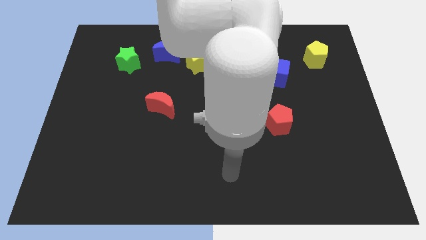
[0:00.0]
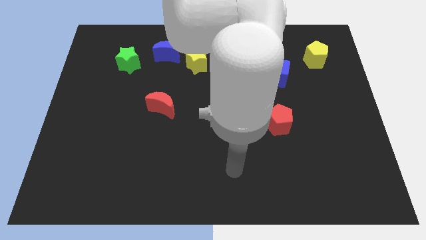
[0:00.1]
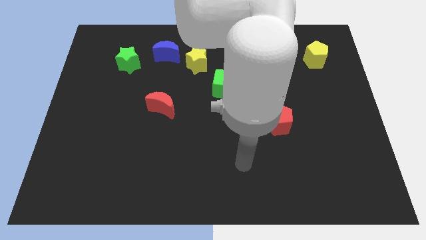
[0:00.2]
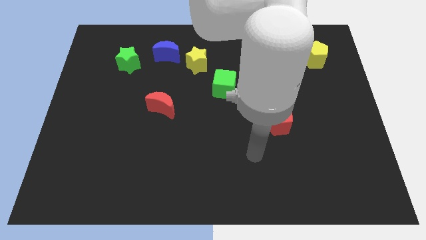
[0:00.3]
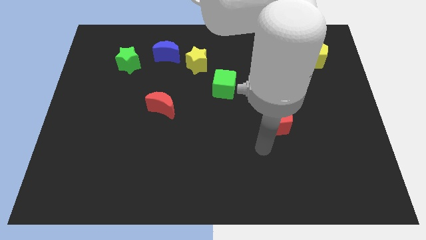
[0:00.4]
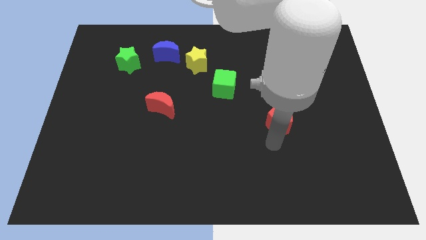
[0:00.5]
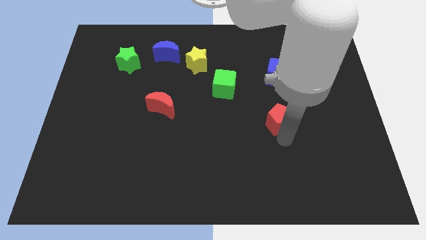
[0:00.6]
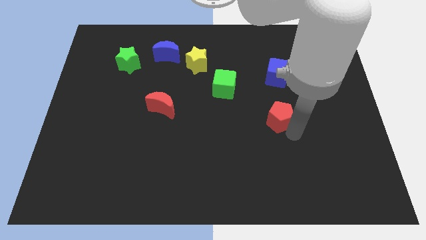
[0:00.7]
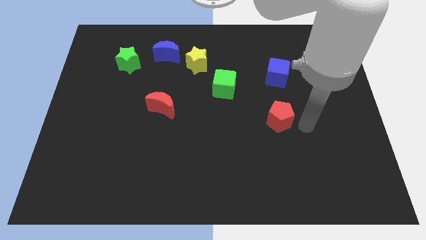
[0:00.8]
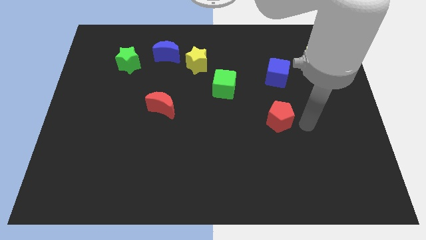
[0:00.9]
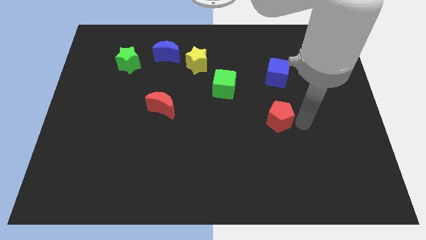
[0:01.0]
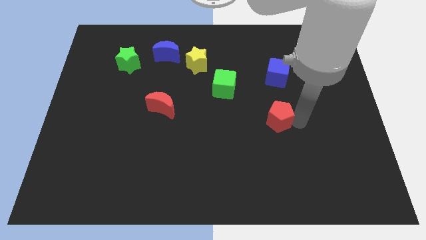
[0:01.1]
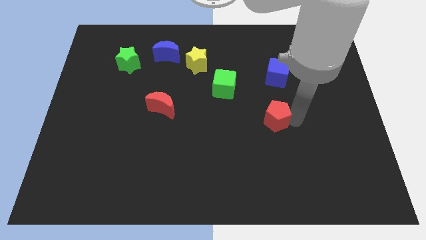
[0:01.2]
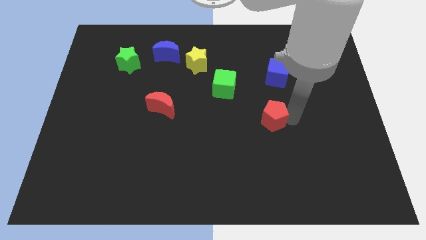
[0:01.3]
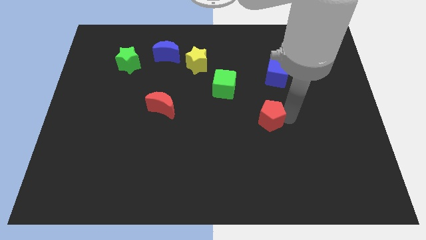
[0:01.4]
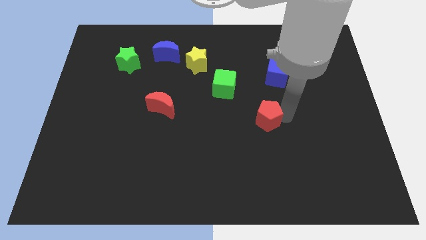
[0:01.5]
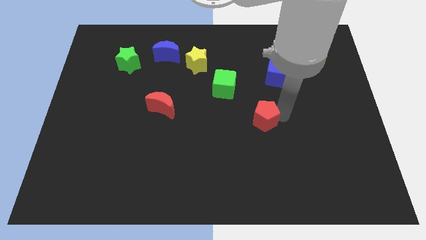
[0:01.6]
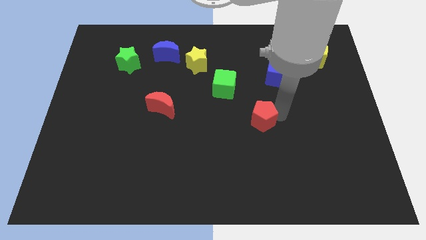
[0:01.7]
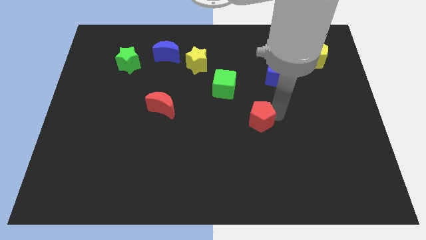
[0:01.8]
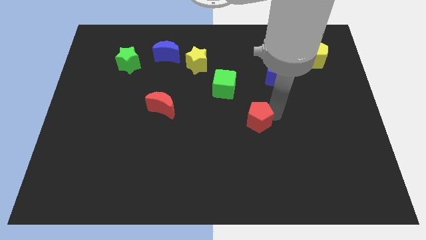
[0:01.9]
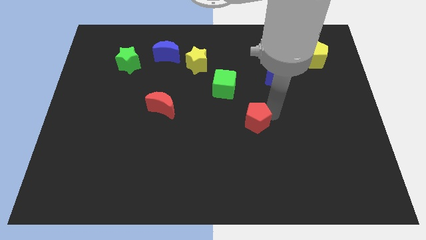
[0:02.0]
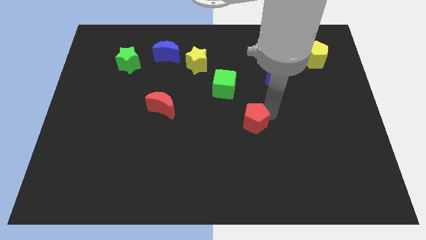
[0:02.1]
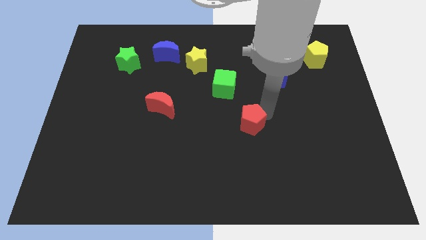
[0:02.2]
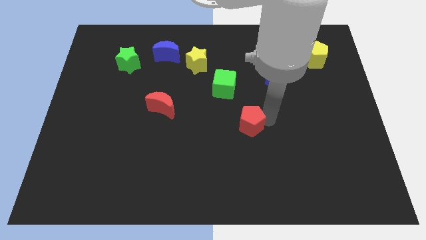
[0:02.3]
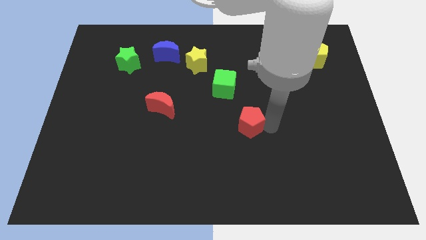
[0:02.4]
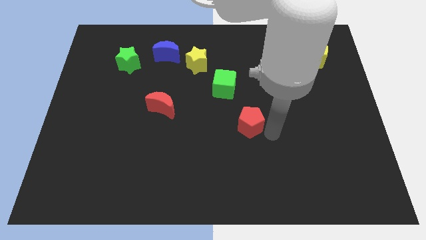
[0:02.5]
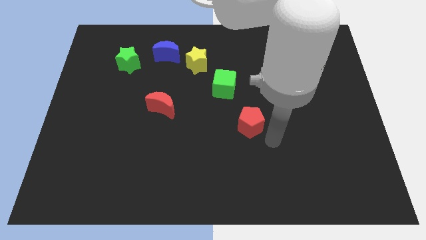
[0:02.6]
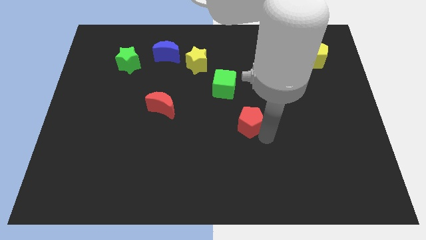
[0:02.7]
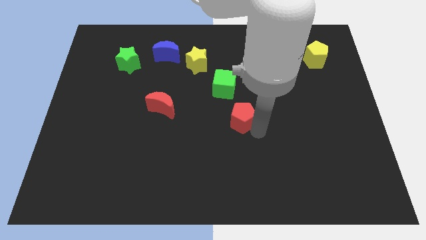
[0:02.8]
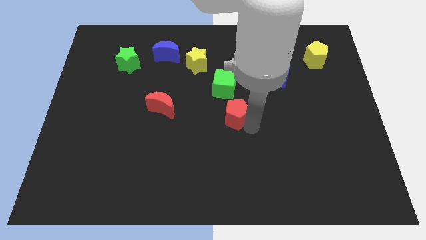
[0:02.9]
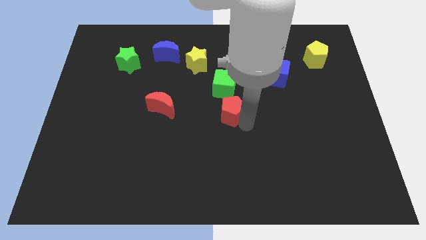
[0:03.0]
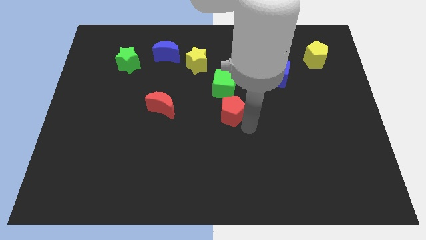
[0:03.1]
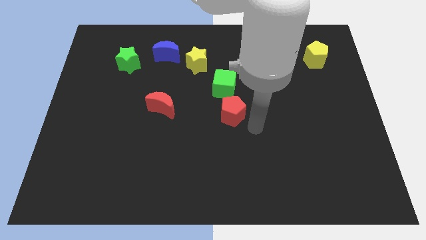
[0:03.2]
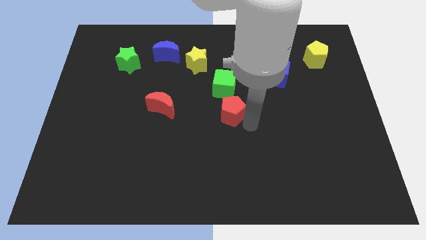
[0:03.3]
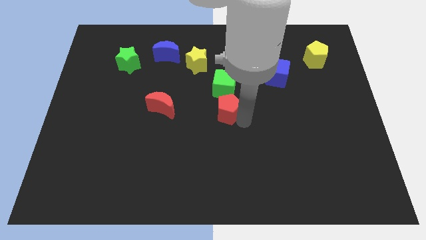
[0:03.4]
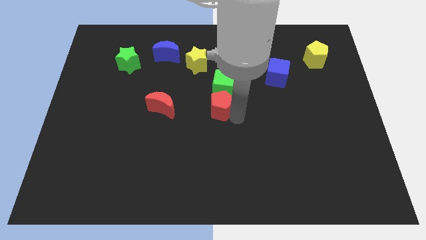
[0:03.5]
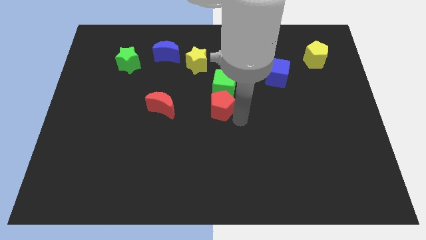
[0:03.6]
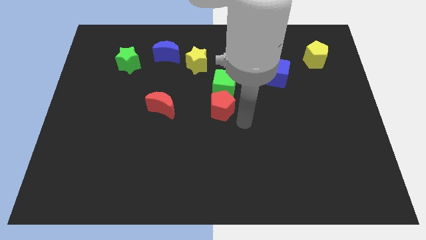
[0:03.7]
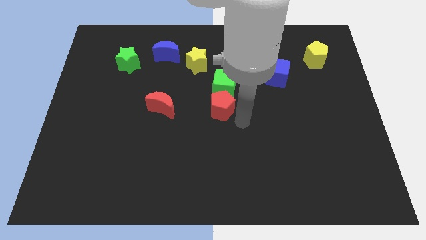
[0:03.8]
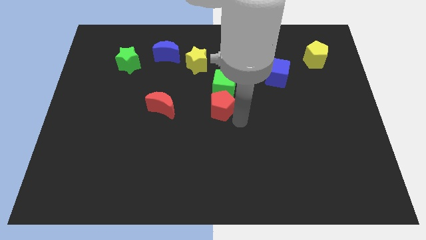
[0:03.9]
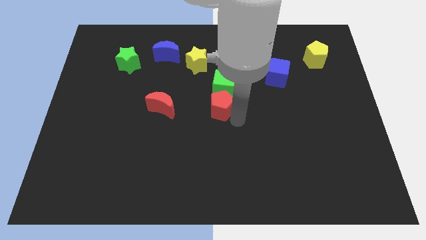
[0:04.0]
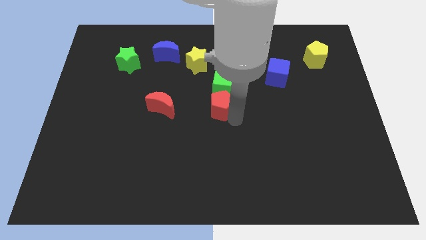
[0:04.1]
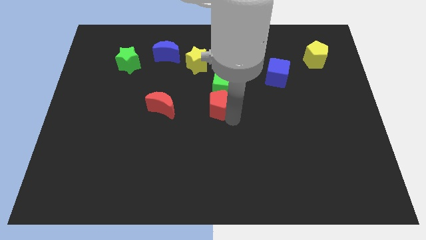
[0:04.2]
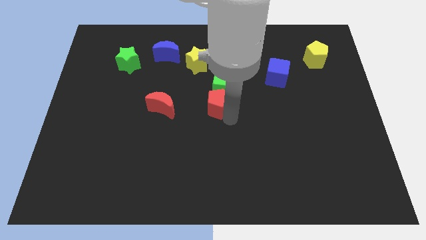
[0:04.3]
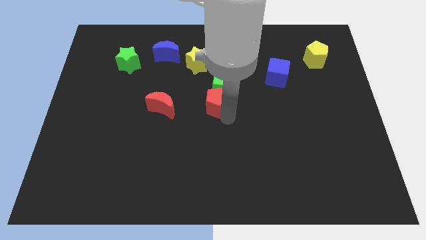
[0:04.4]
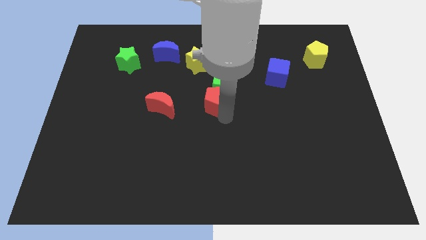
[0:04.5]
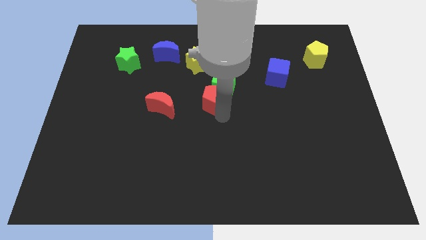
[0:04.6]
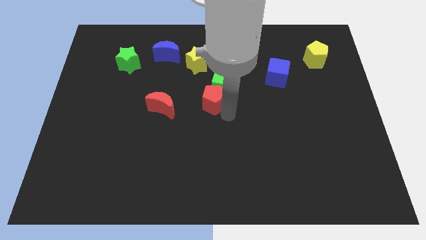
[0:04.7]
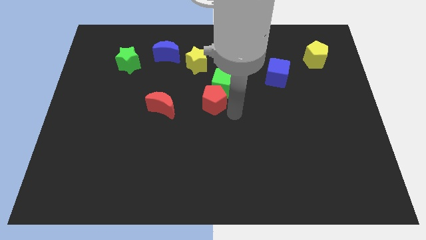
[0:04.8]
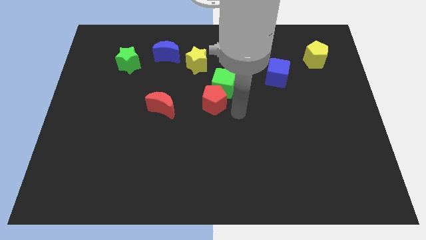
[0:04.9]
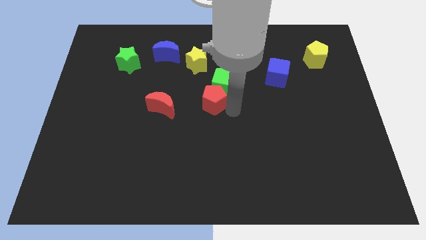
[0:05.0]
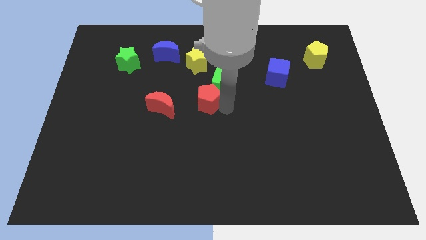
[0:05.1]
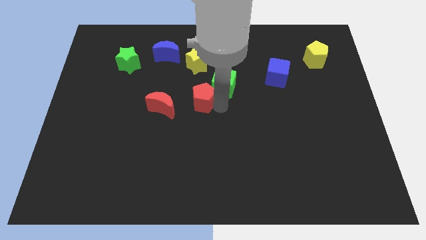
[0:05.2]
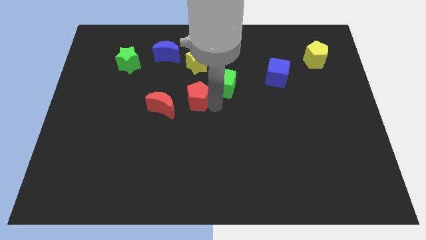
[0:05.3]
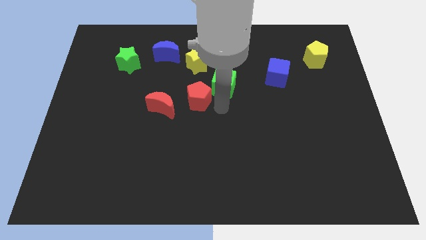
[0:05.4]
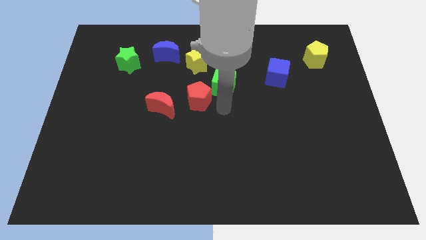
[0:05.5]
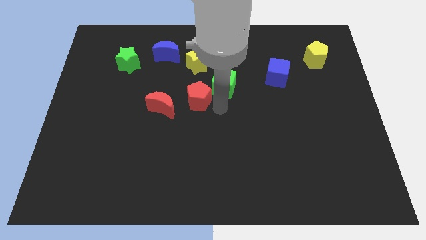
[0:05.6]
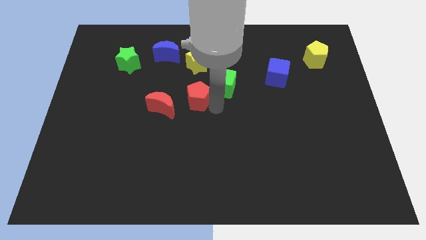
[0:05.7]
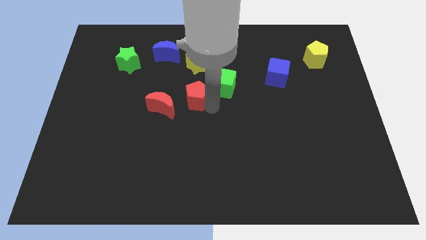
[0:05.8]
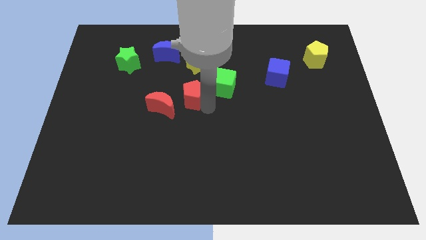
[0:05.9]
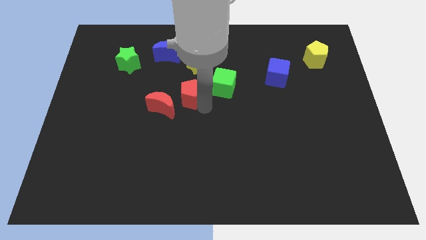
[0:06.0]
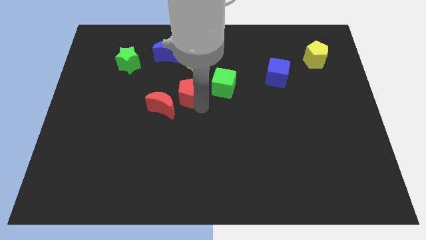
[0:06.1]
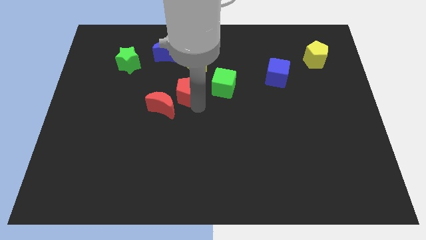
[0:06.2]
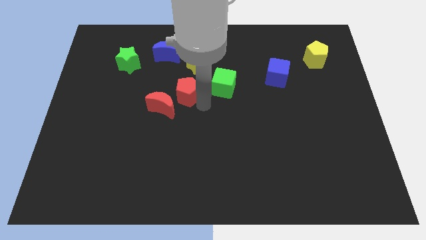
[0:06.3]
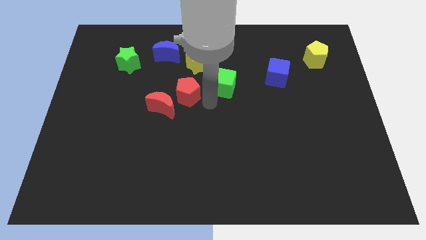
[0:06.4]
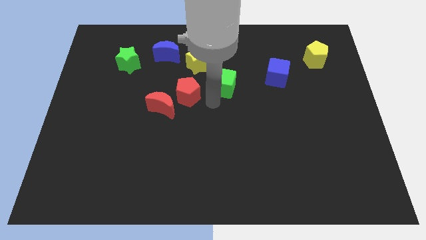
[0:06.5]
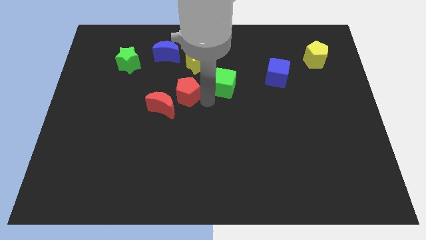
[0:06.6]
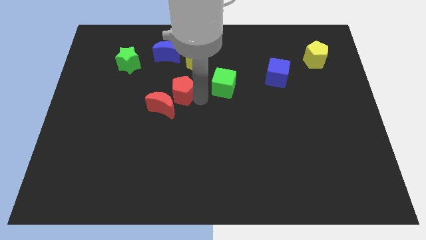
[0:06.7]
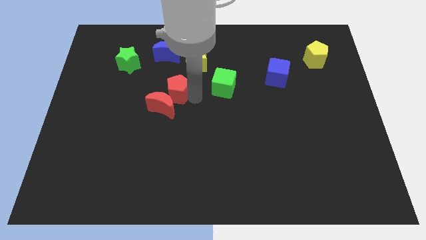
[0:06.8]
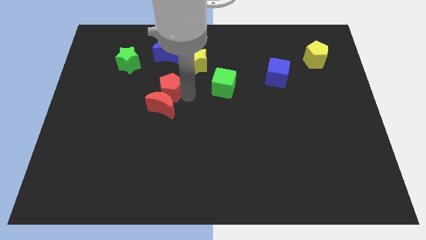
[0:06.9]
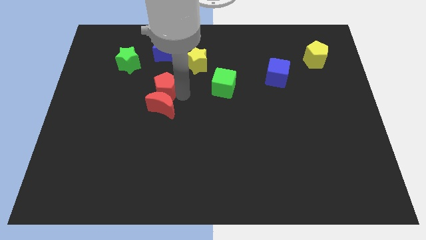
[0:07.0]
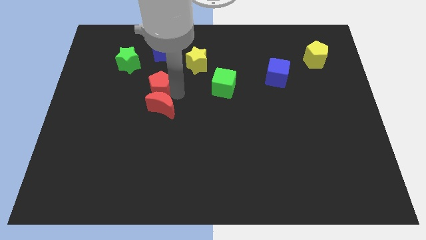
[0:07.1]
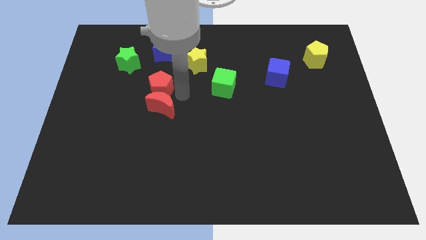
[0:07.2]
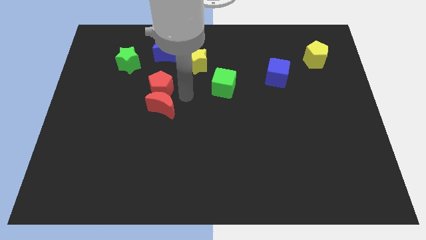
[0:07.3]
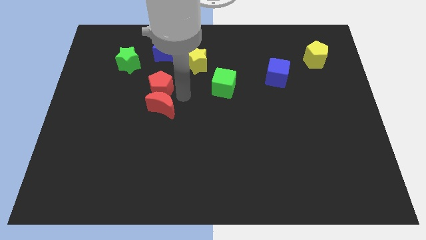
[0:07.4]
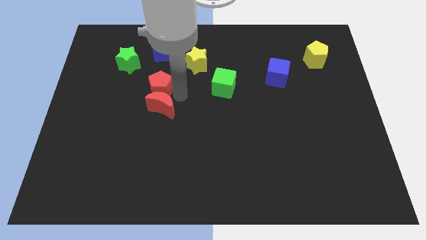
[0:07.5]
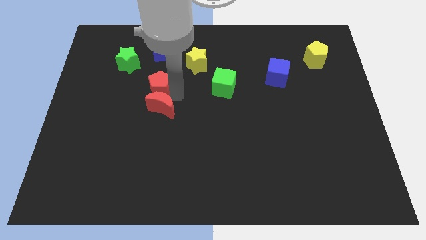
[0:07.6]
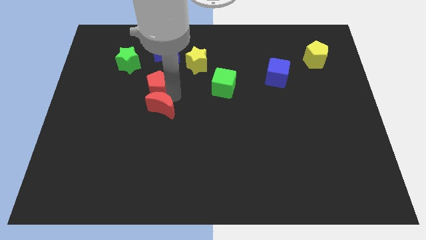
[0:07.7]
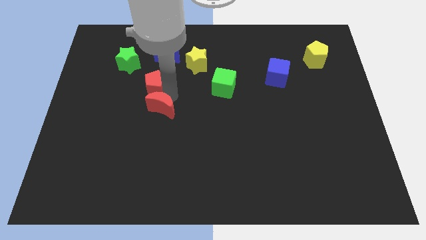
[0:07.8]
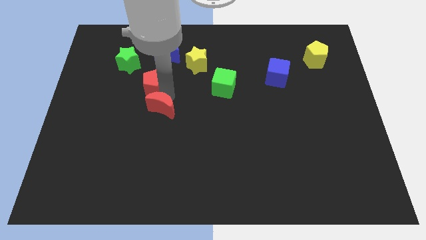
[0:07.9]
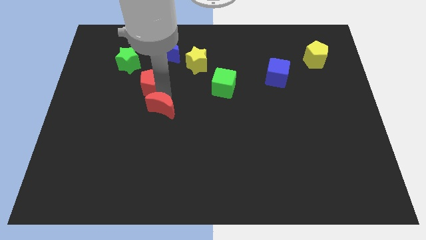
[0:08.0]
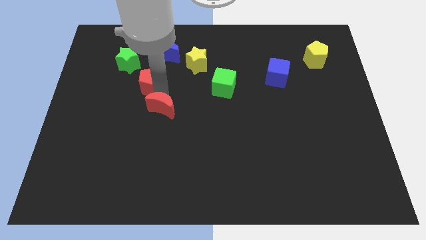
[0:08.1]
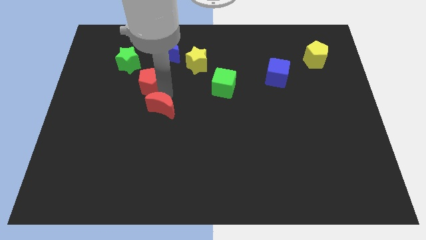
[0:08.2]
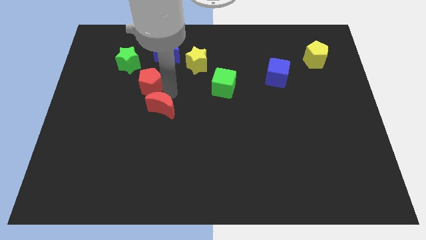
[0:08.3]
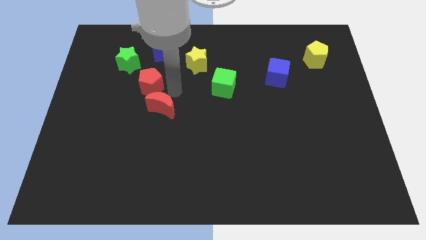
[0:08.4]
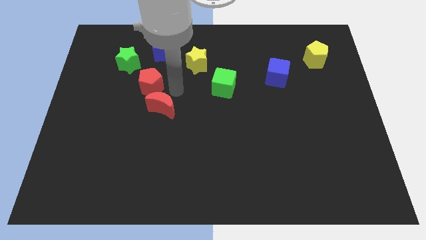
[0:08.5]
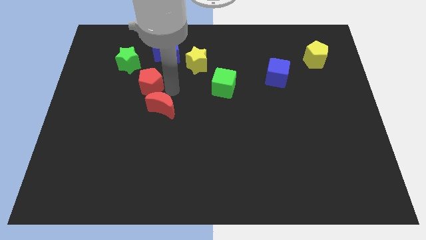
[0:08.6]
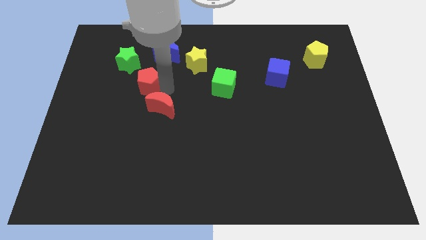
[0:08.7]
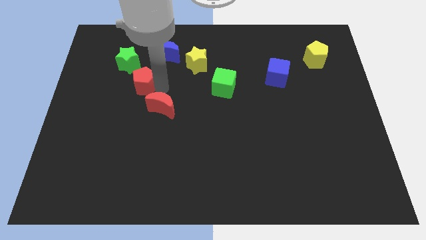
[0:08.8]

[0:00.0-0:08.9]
push the red pentagon to the bottom of the green star
